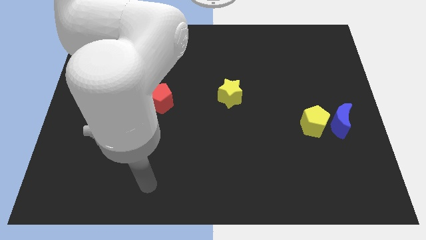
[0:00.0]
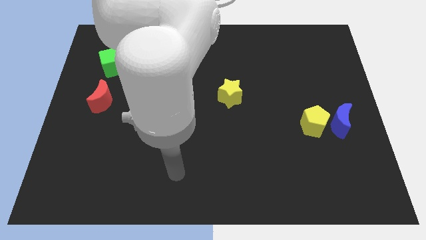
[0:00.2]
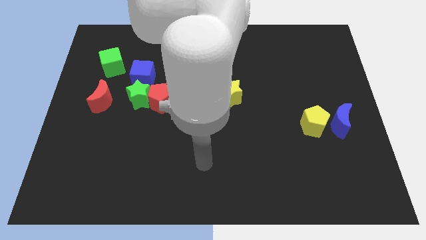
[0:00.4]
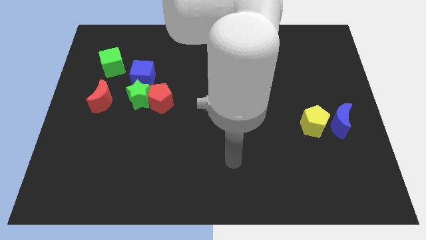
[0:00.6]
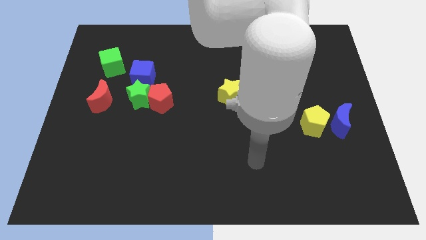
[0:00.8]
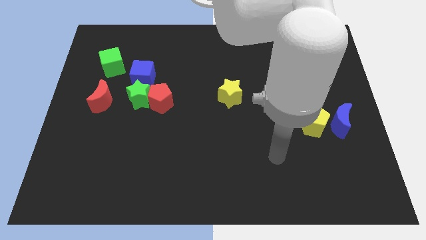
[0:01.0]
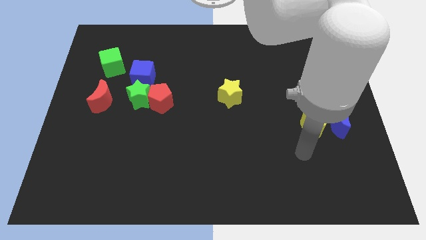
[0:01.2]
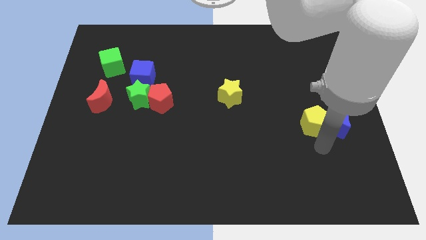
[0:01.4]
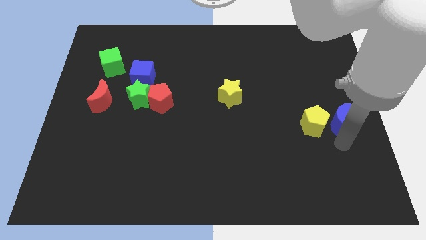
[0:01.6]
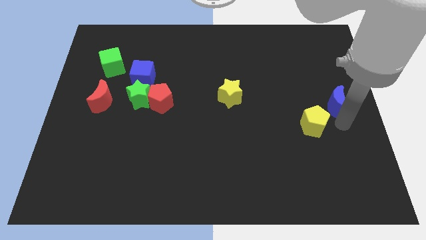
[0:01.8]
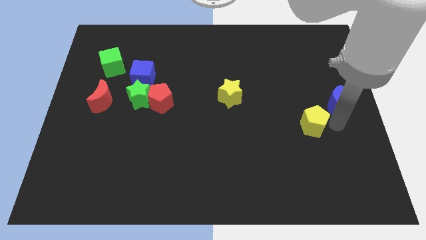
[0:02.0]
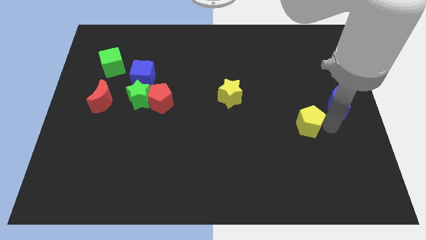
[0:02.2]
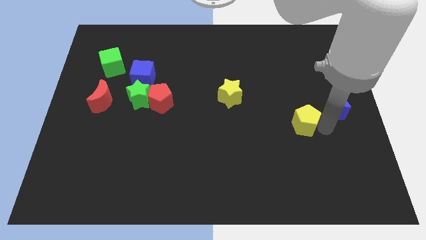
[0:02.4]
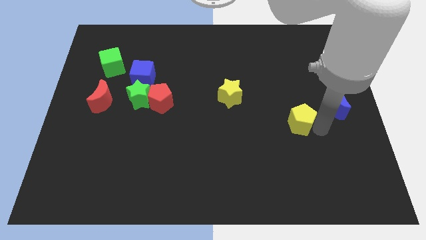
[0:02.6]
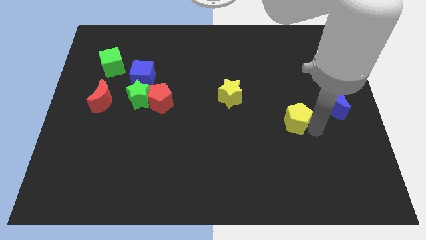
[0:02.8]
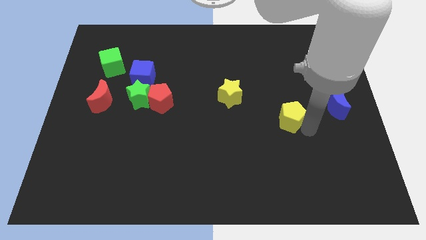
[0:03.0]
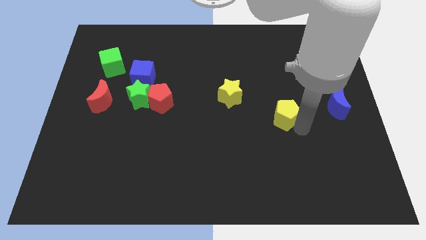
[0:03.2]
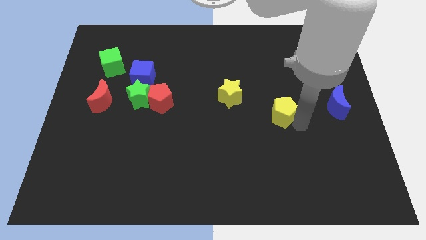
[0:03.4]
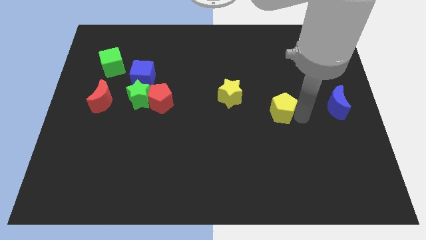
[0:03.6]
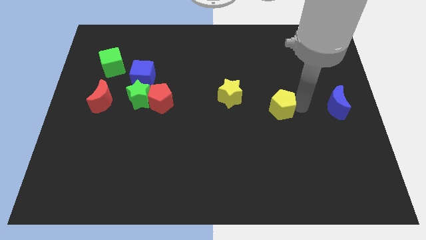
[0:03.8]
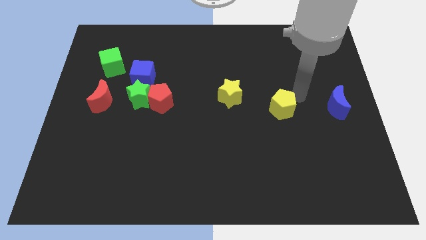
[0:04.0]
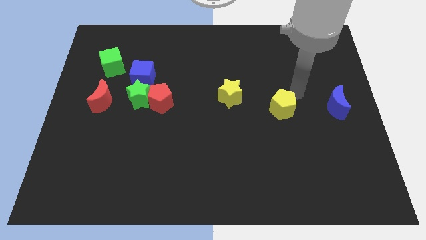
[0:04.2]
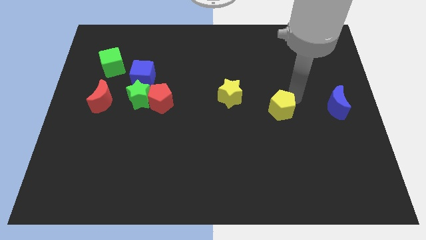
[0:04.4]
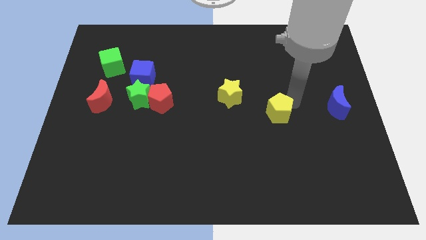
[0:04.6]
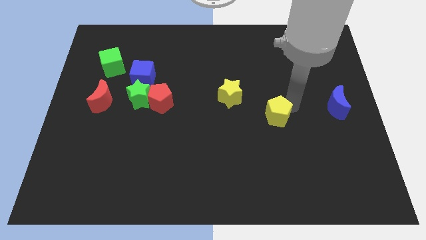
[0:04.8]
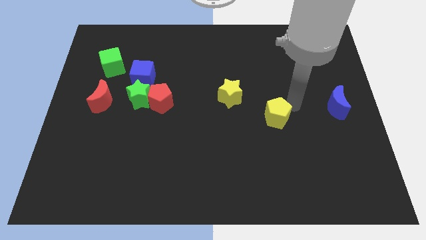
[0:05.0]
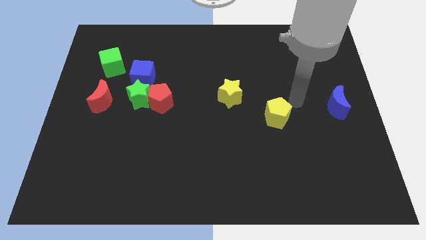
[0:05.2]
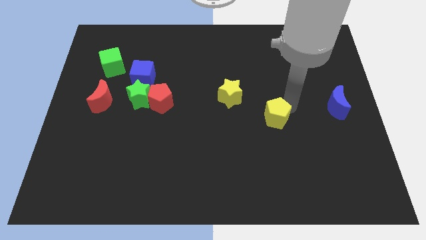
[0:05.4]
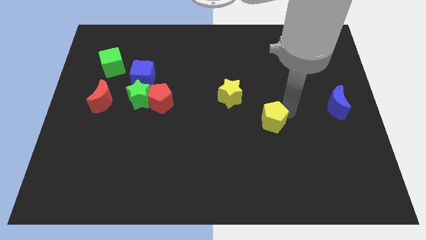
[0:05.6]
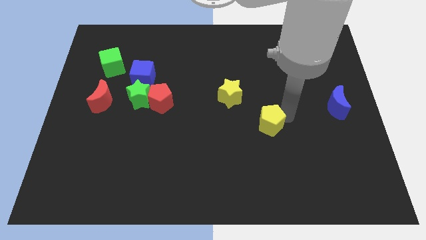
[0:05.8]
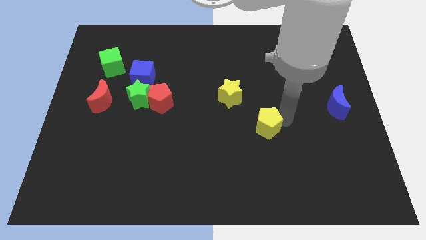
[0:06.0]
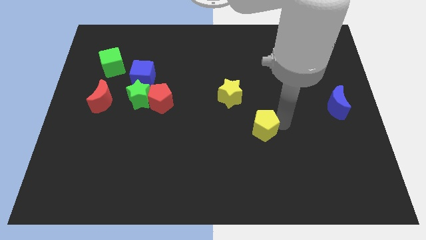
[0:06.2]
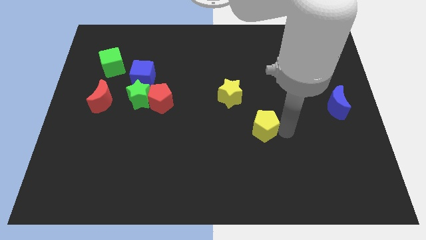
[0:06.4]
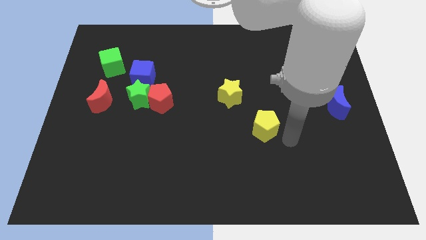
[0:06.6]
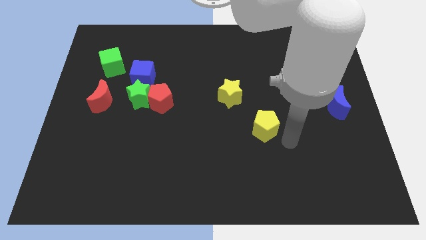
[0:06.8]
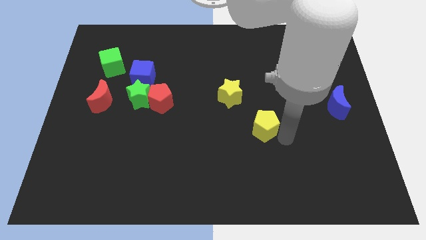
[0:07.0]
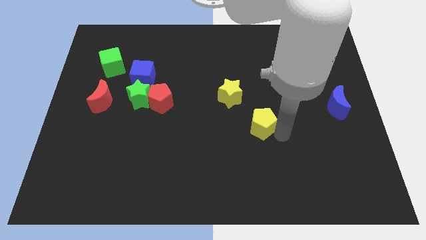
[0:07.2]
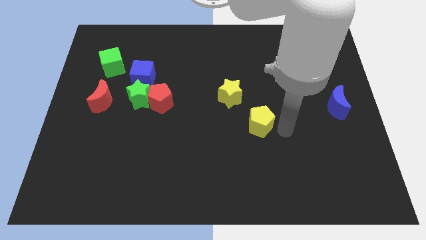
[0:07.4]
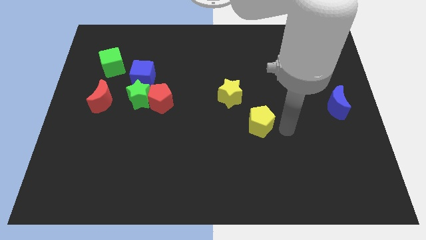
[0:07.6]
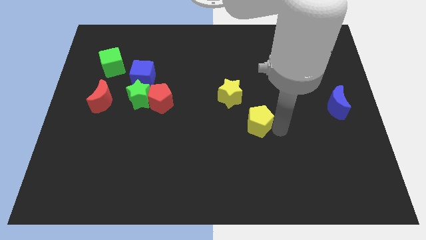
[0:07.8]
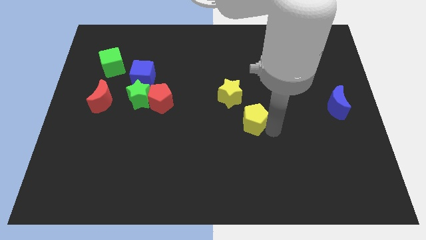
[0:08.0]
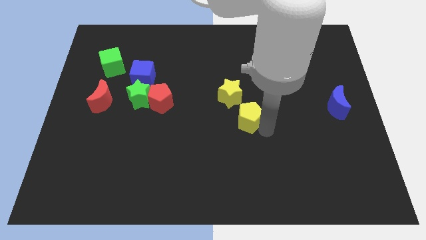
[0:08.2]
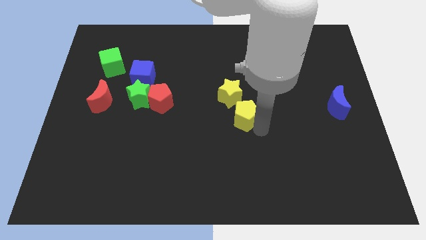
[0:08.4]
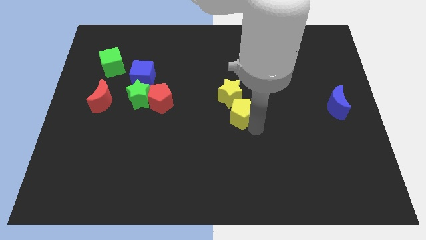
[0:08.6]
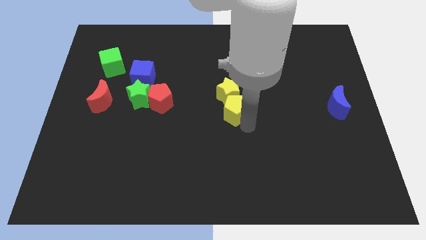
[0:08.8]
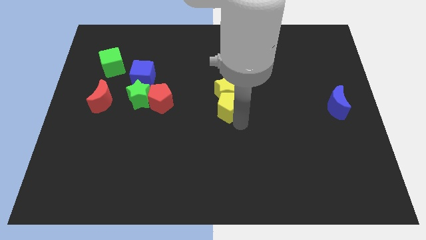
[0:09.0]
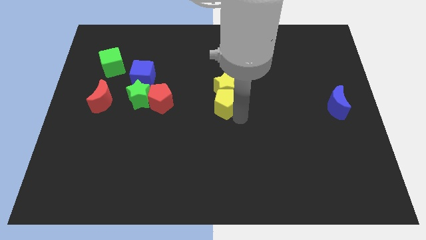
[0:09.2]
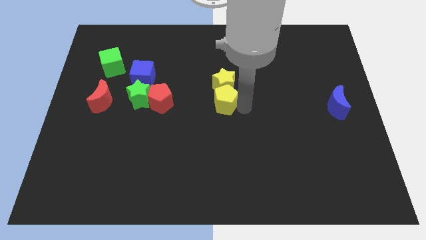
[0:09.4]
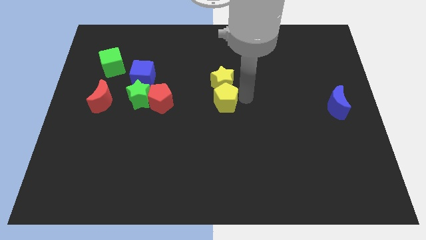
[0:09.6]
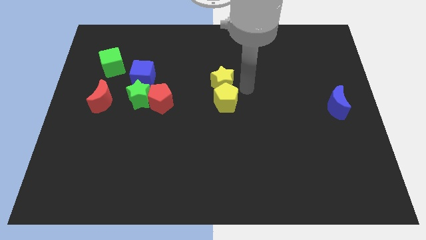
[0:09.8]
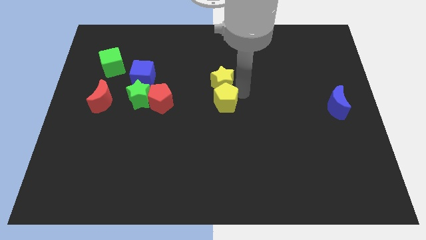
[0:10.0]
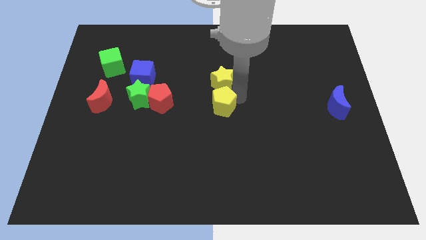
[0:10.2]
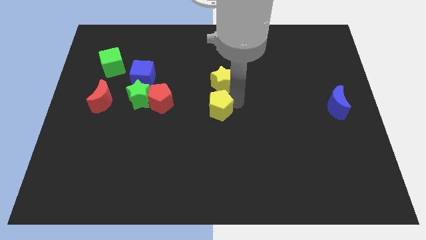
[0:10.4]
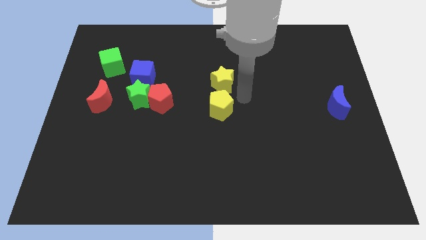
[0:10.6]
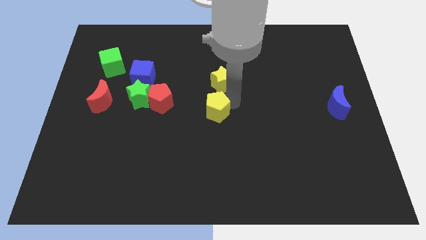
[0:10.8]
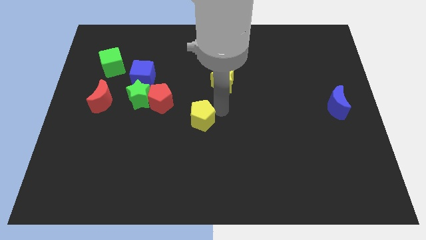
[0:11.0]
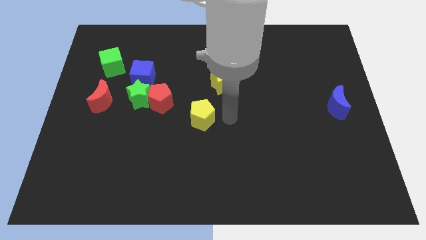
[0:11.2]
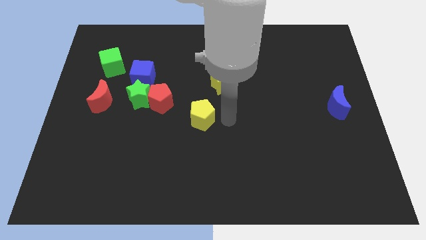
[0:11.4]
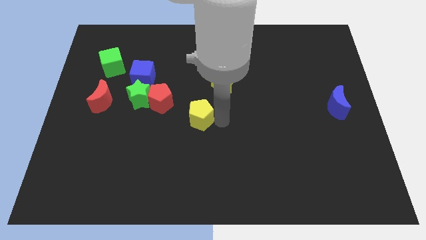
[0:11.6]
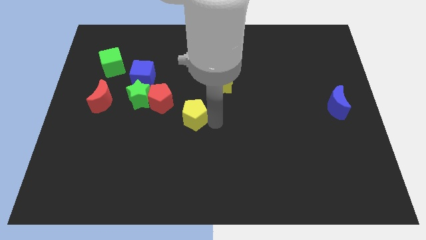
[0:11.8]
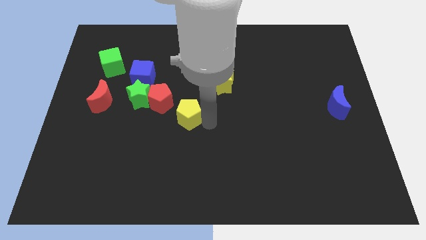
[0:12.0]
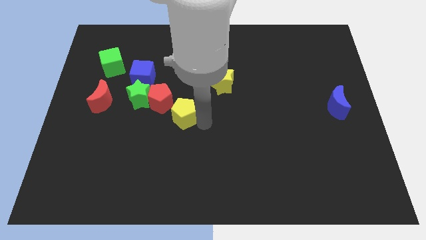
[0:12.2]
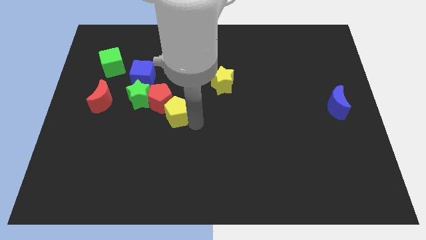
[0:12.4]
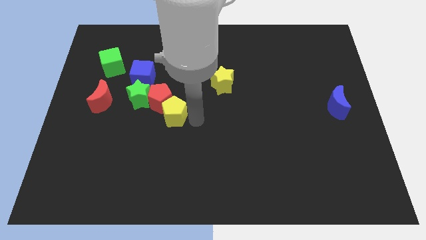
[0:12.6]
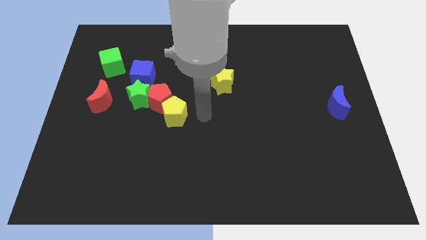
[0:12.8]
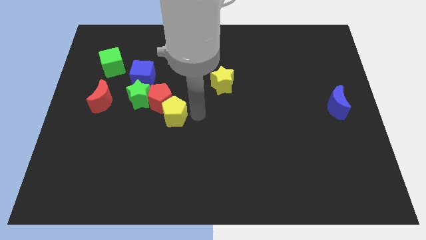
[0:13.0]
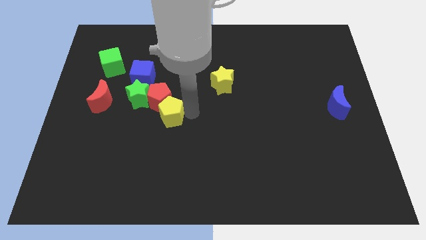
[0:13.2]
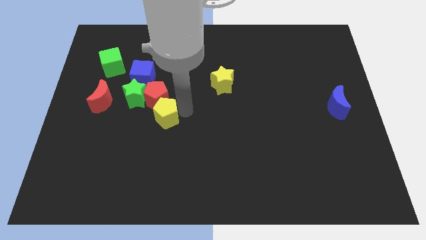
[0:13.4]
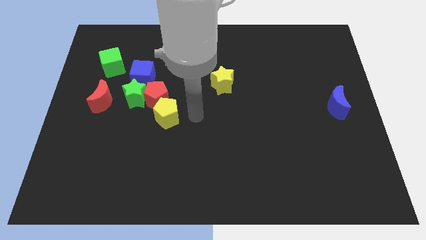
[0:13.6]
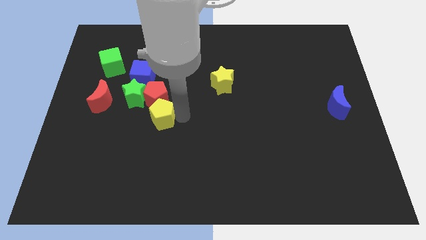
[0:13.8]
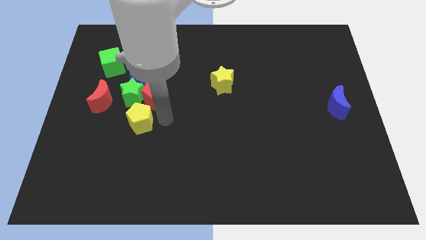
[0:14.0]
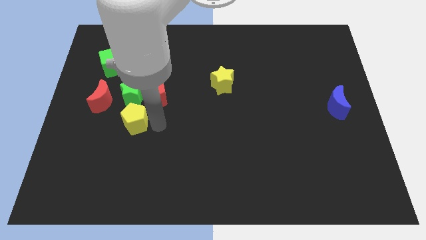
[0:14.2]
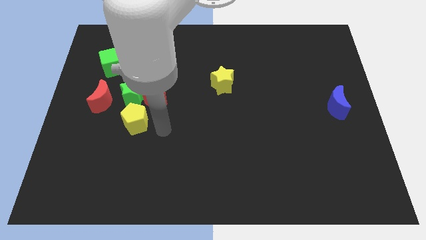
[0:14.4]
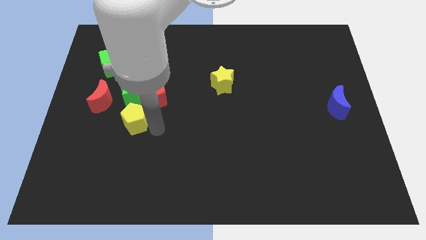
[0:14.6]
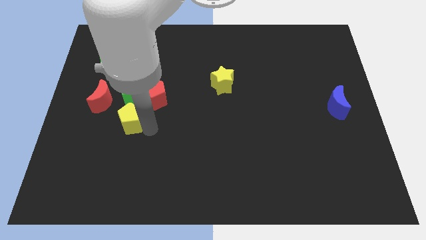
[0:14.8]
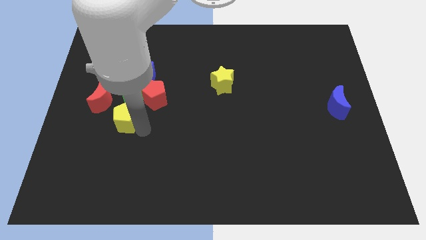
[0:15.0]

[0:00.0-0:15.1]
slide the yellow pentagon to the bottom left of the green star
